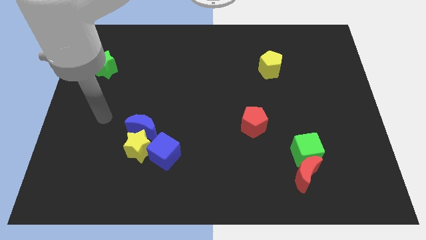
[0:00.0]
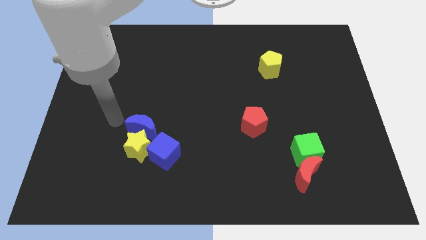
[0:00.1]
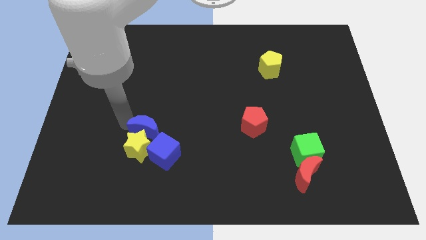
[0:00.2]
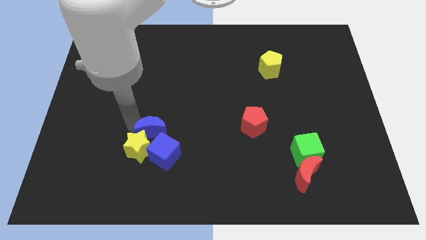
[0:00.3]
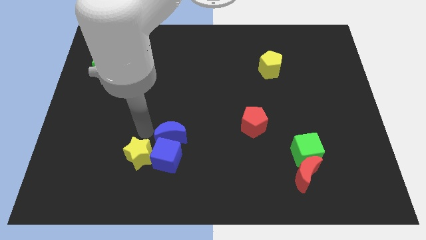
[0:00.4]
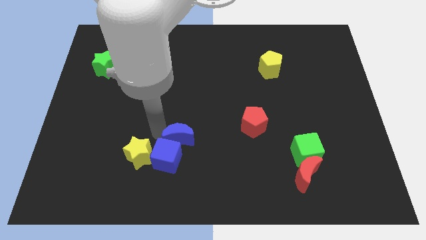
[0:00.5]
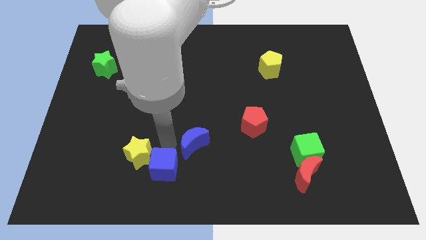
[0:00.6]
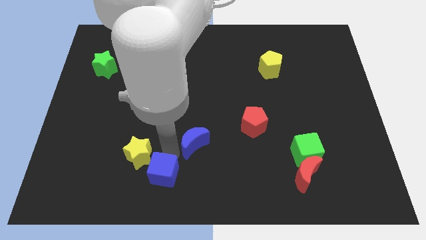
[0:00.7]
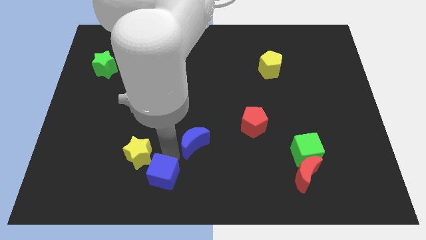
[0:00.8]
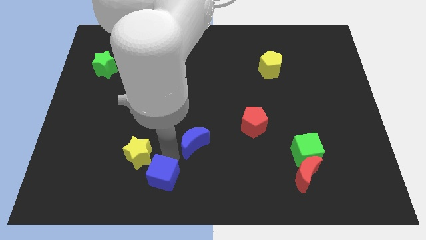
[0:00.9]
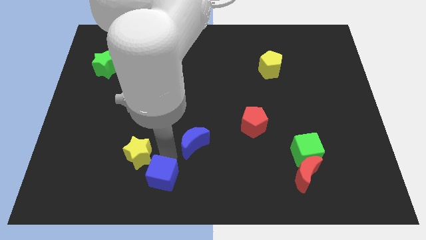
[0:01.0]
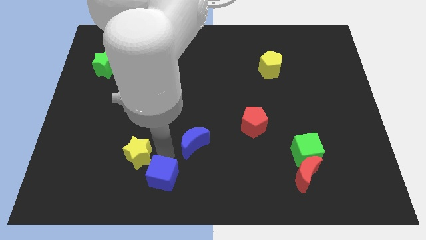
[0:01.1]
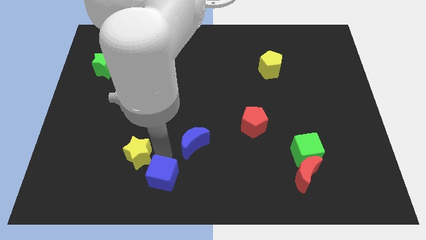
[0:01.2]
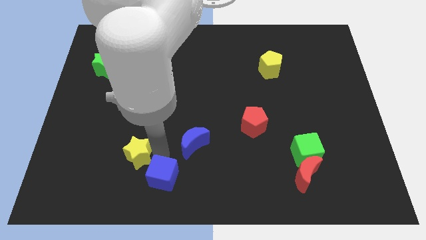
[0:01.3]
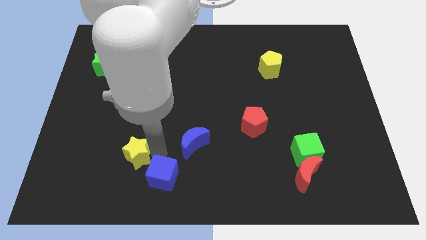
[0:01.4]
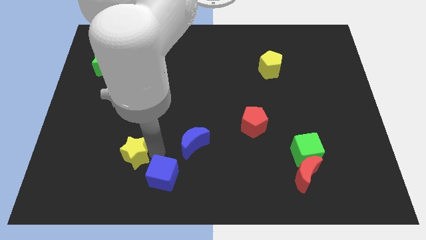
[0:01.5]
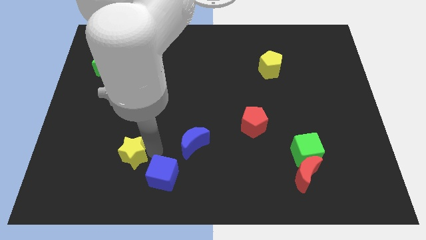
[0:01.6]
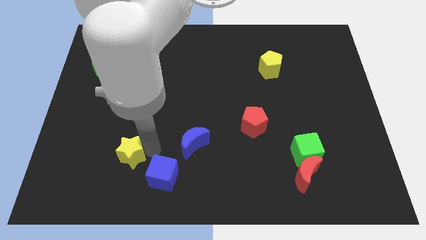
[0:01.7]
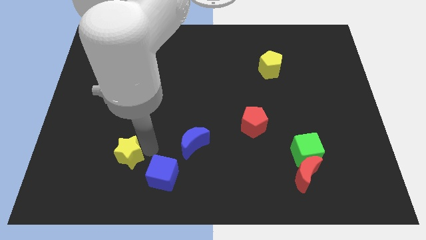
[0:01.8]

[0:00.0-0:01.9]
pull the yellow star apart from the blue moon and blue cube

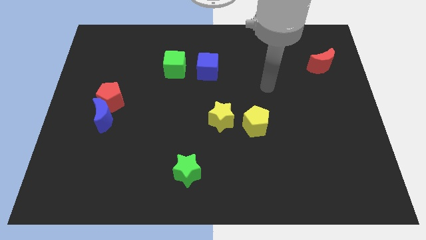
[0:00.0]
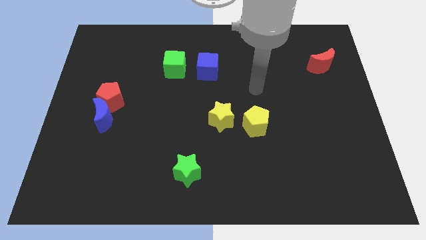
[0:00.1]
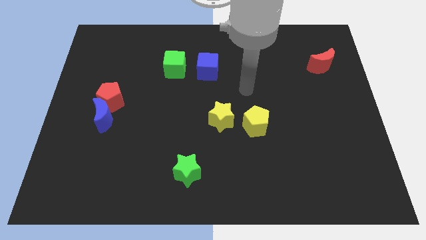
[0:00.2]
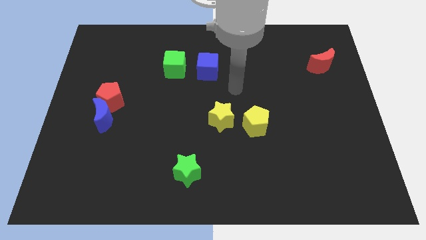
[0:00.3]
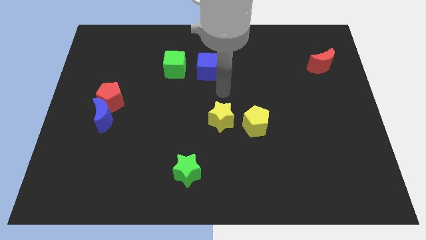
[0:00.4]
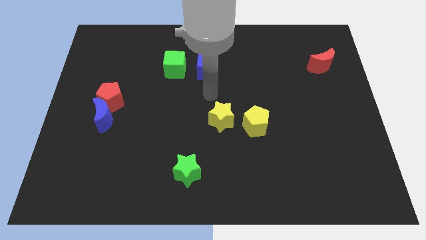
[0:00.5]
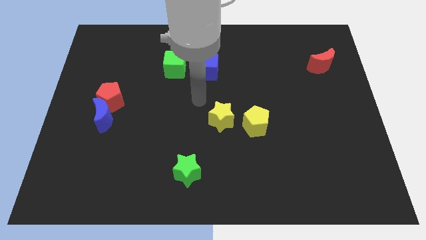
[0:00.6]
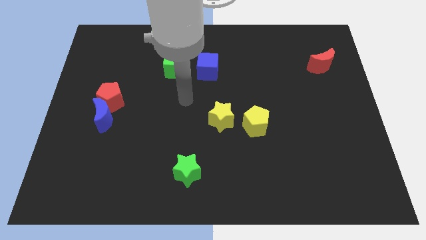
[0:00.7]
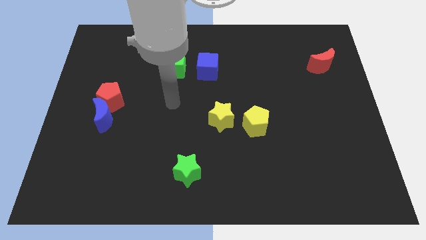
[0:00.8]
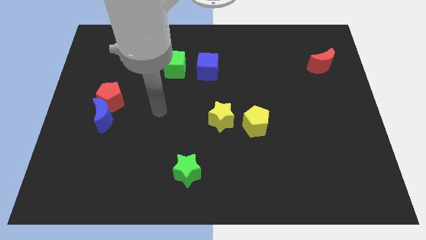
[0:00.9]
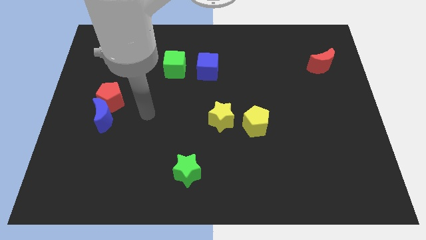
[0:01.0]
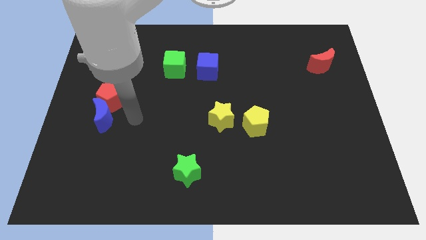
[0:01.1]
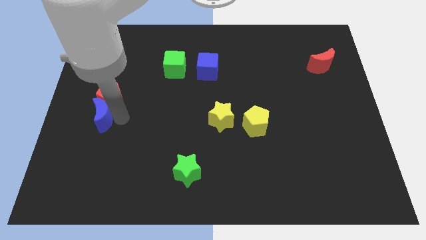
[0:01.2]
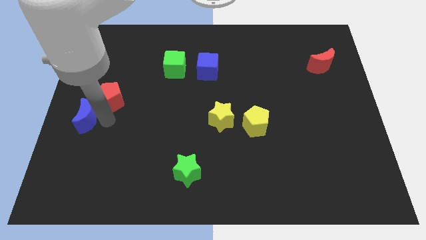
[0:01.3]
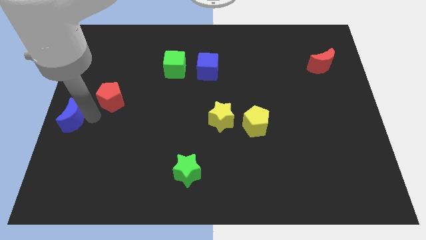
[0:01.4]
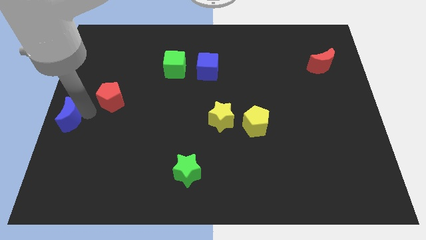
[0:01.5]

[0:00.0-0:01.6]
pull the red pentagon apart from the blue moon

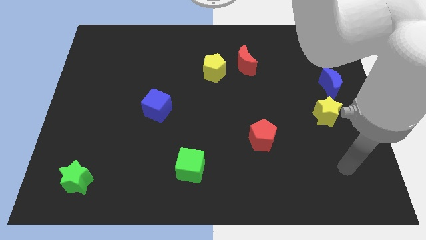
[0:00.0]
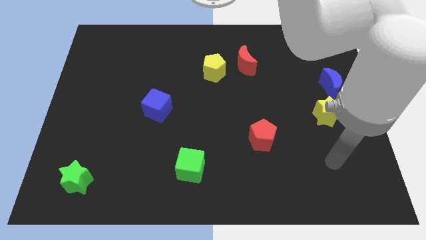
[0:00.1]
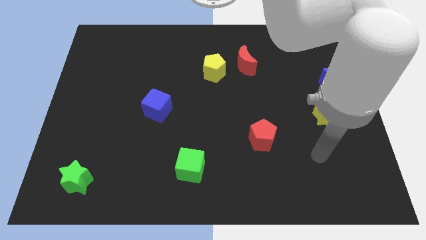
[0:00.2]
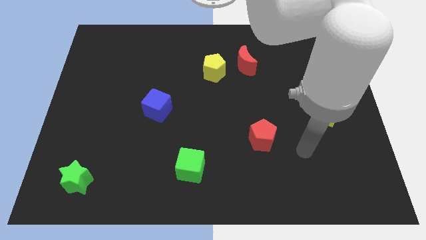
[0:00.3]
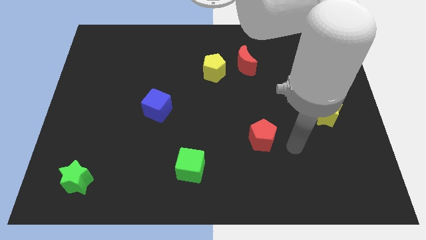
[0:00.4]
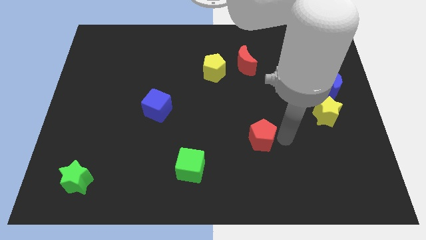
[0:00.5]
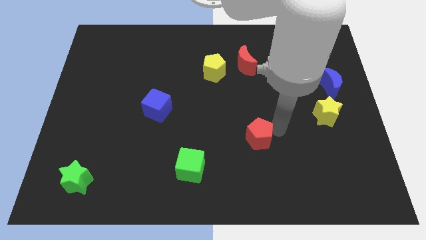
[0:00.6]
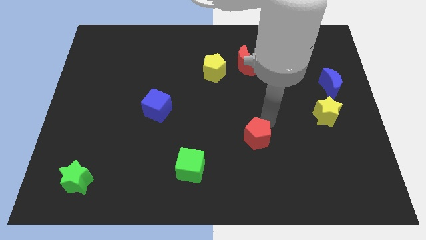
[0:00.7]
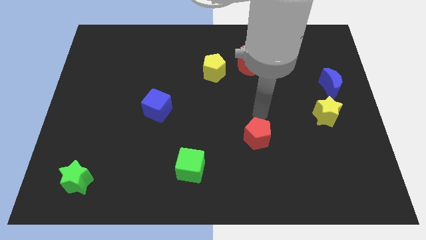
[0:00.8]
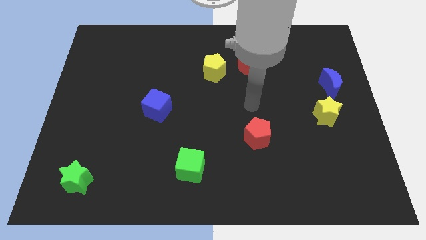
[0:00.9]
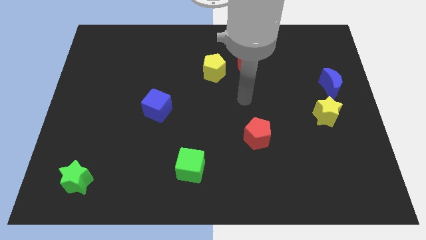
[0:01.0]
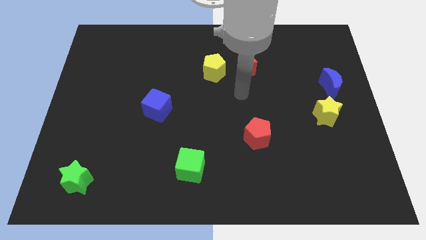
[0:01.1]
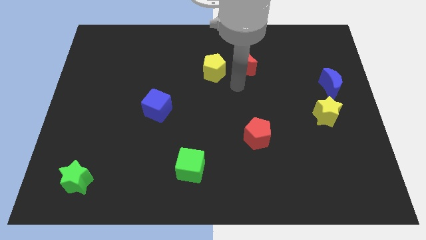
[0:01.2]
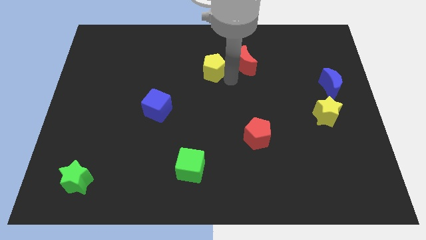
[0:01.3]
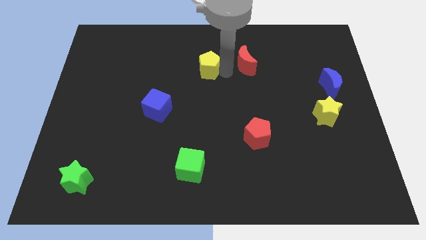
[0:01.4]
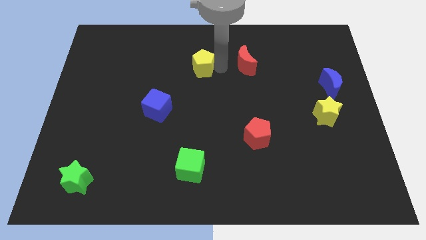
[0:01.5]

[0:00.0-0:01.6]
pull the red moon apart from the yellow pentagon

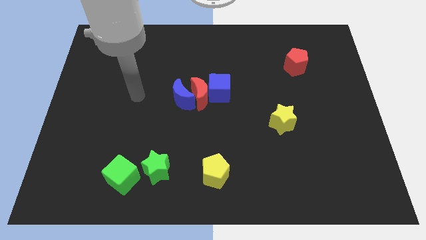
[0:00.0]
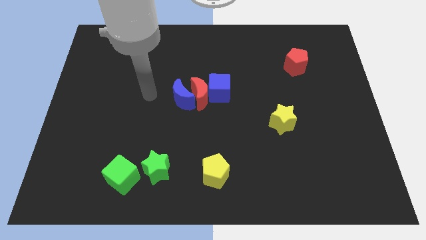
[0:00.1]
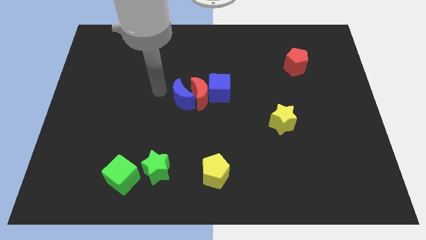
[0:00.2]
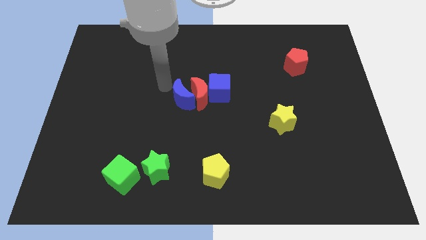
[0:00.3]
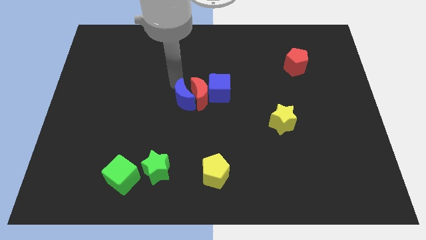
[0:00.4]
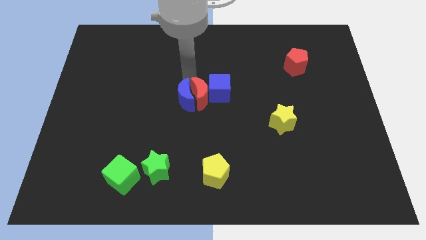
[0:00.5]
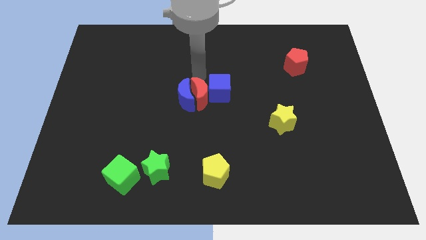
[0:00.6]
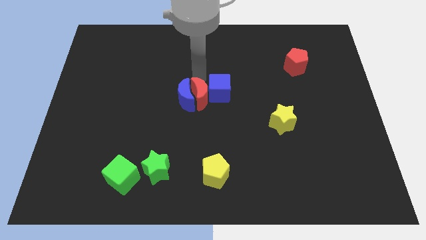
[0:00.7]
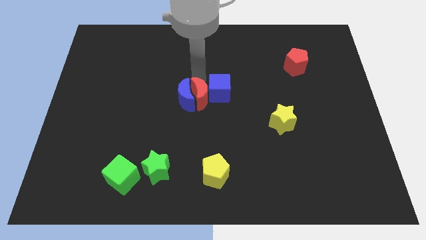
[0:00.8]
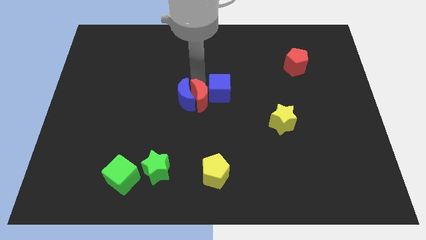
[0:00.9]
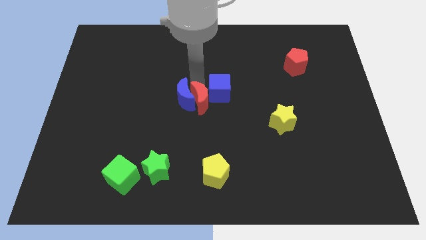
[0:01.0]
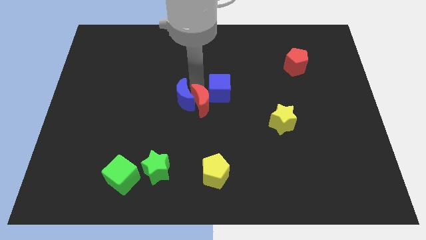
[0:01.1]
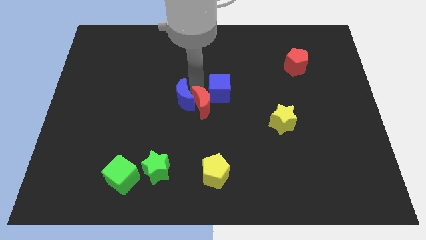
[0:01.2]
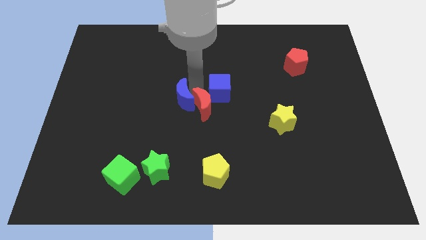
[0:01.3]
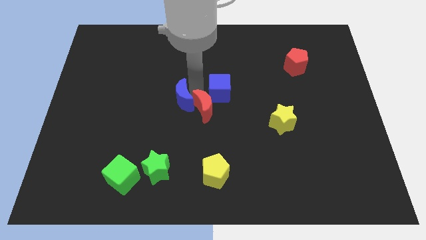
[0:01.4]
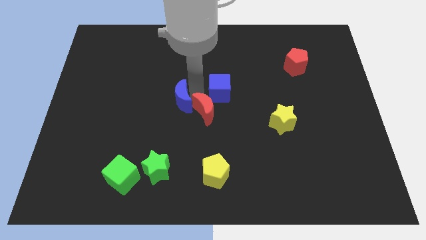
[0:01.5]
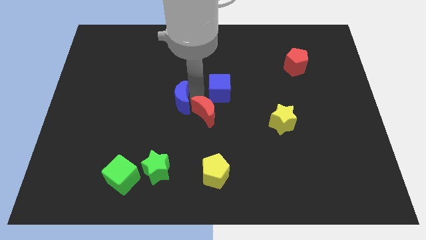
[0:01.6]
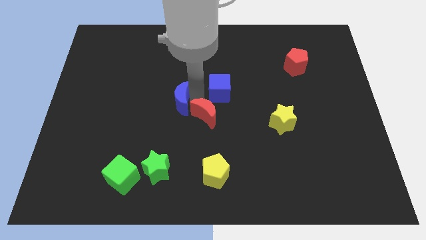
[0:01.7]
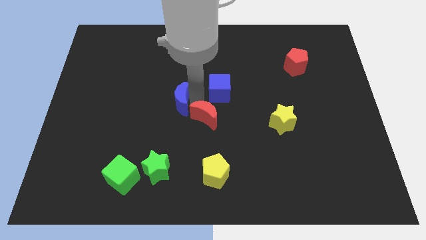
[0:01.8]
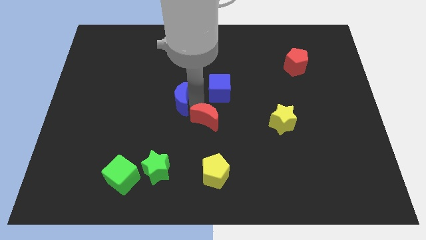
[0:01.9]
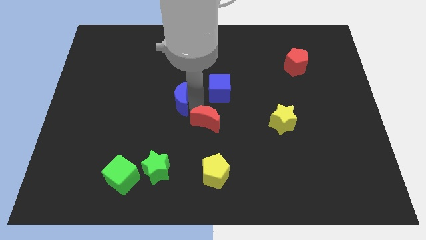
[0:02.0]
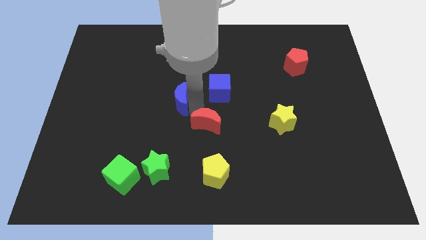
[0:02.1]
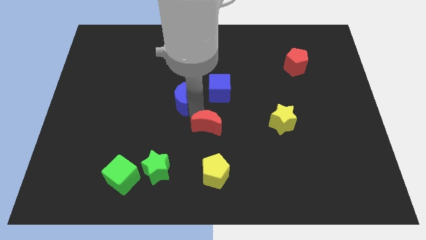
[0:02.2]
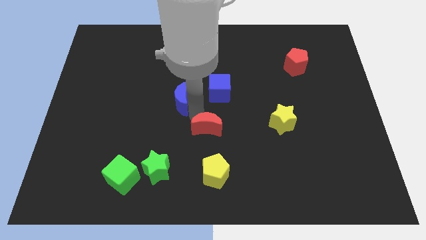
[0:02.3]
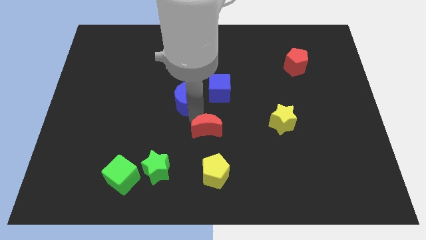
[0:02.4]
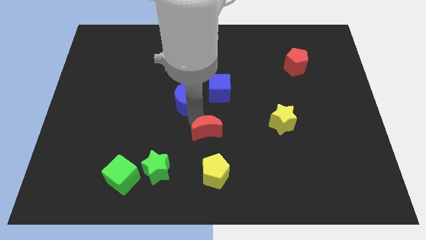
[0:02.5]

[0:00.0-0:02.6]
separate the red moon from the blue moon and blue cube

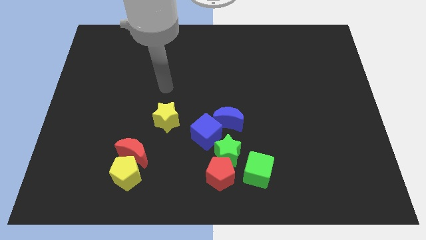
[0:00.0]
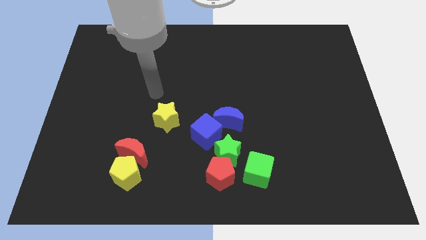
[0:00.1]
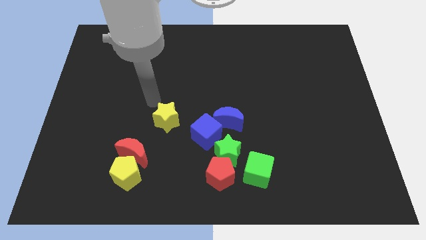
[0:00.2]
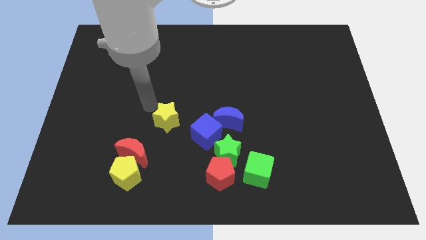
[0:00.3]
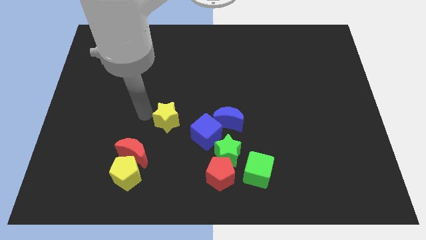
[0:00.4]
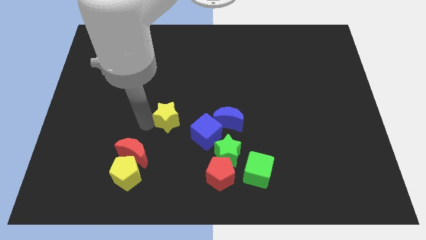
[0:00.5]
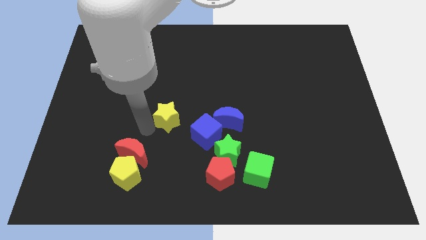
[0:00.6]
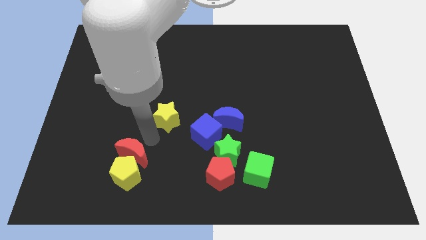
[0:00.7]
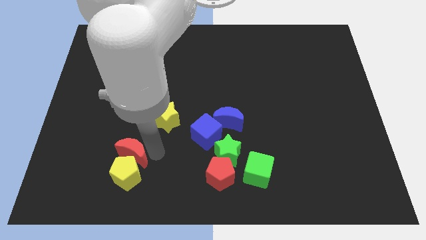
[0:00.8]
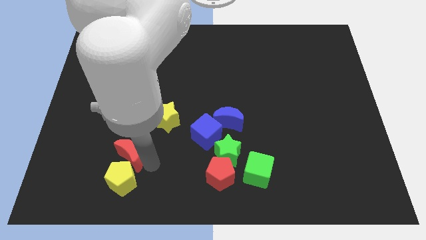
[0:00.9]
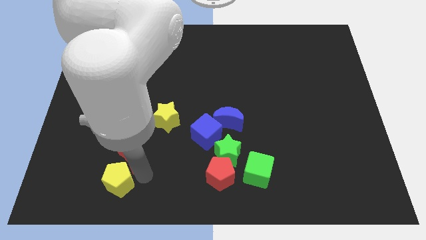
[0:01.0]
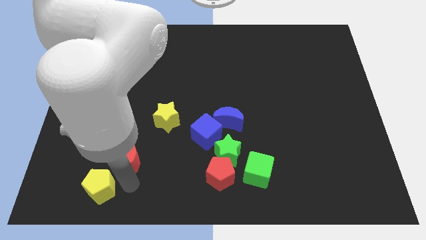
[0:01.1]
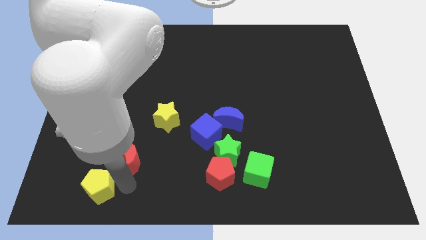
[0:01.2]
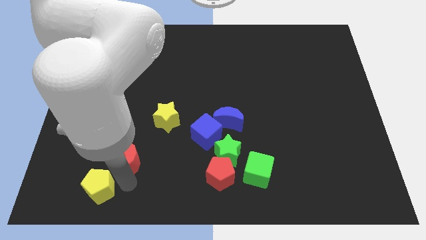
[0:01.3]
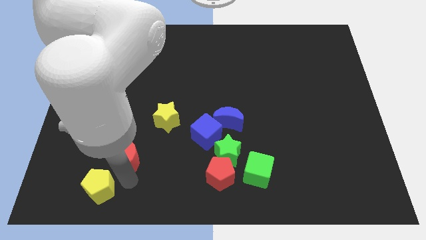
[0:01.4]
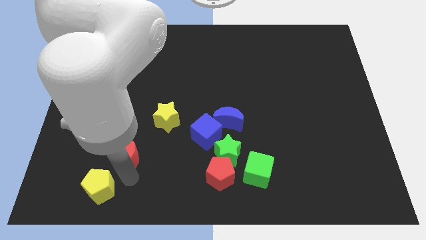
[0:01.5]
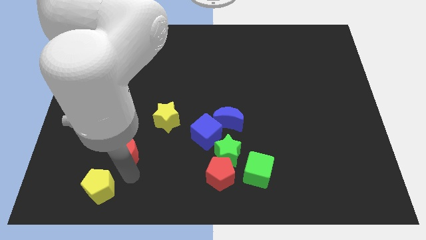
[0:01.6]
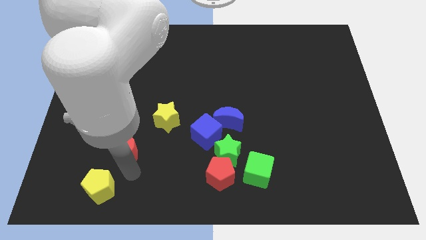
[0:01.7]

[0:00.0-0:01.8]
move the red moon away from the yellow pentagon
